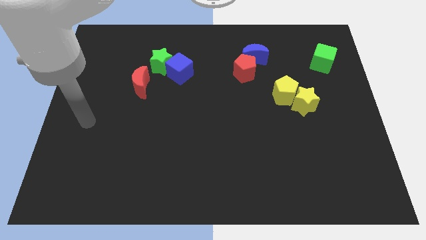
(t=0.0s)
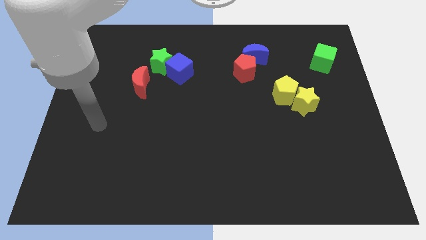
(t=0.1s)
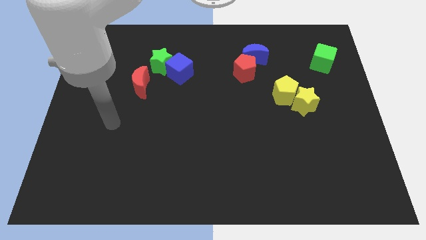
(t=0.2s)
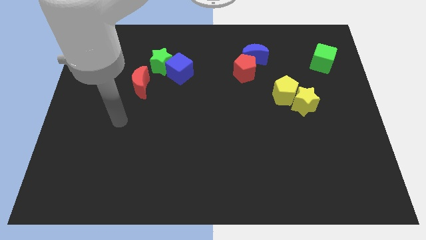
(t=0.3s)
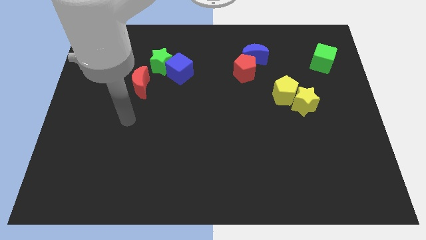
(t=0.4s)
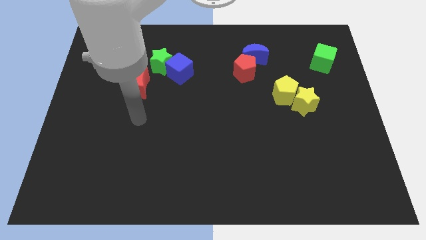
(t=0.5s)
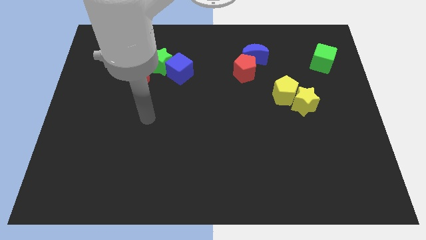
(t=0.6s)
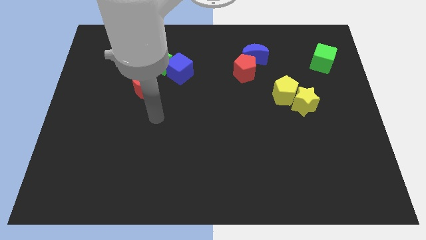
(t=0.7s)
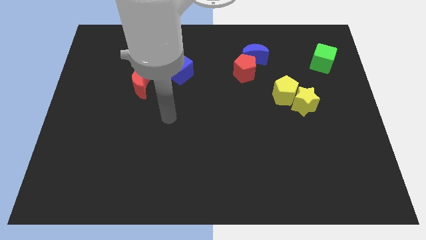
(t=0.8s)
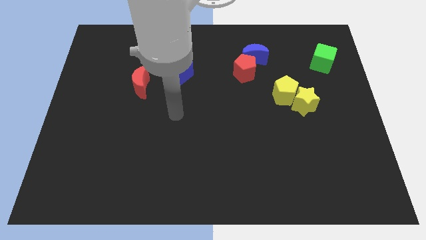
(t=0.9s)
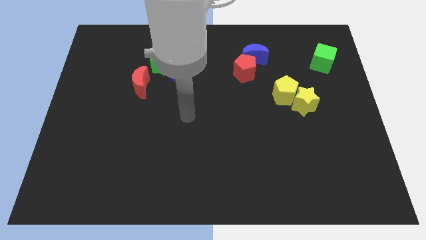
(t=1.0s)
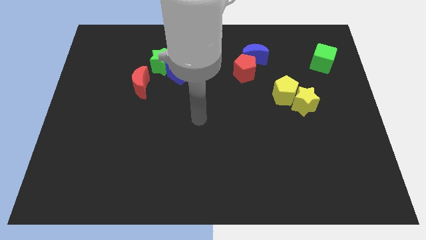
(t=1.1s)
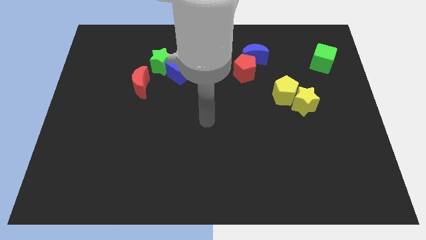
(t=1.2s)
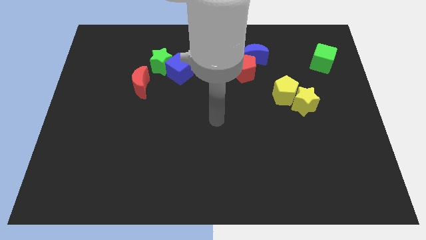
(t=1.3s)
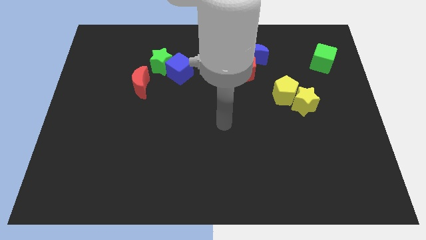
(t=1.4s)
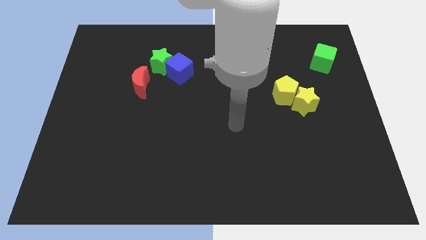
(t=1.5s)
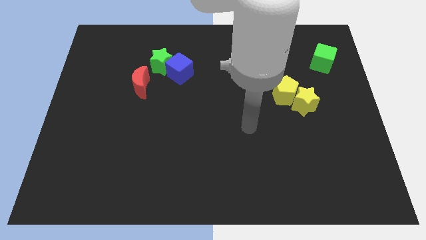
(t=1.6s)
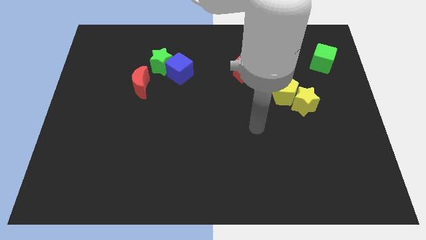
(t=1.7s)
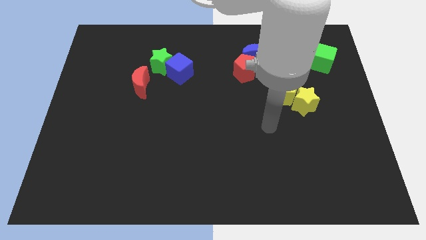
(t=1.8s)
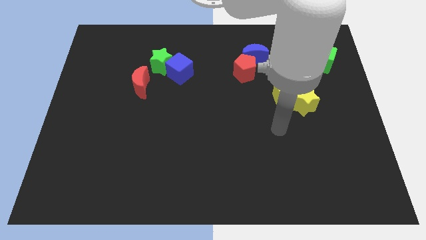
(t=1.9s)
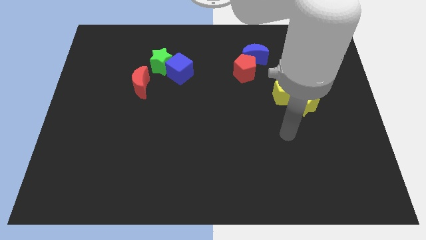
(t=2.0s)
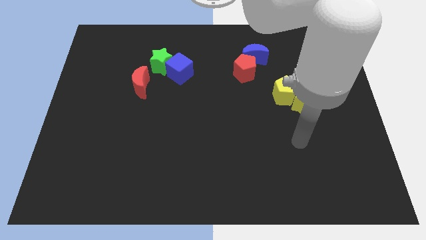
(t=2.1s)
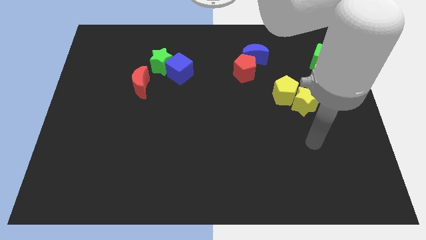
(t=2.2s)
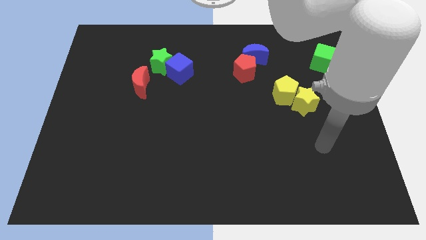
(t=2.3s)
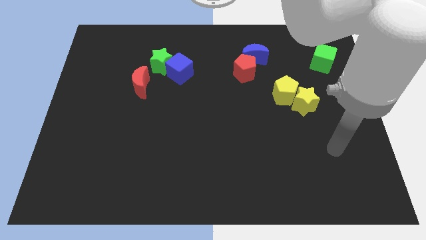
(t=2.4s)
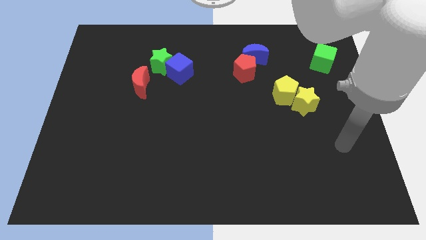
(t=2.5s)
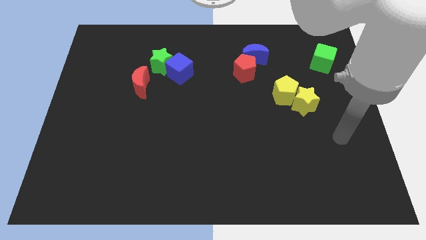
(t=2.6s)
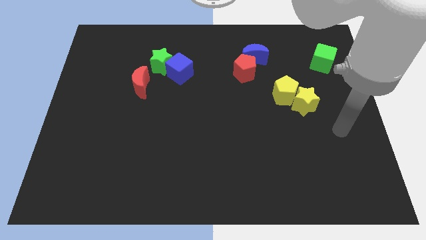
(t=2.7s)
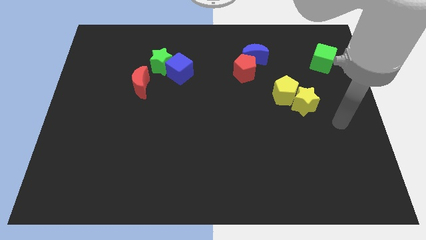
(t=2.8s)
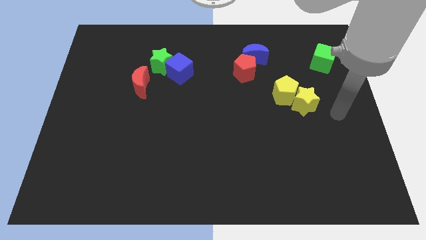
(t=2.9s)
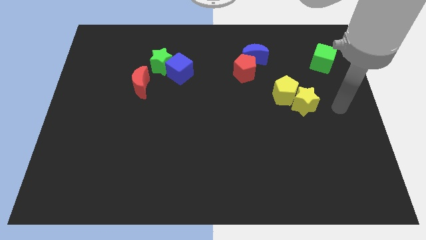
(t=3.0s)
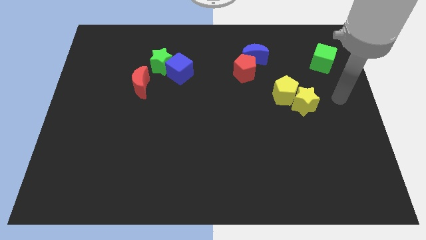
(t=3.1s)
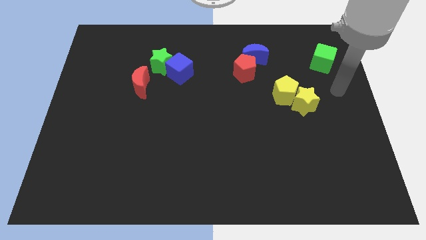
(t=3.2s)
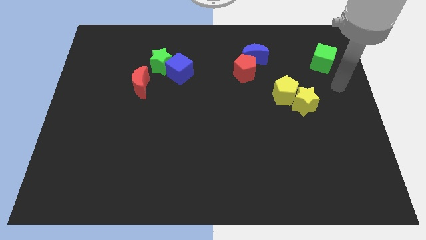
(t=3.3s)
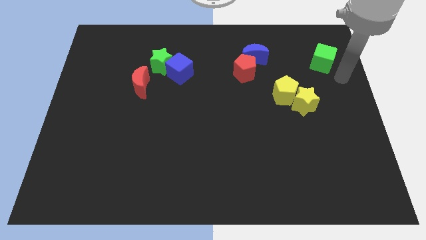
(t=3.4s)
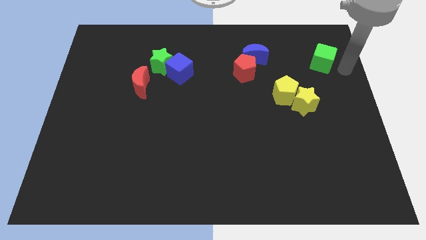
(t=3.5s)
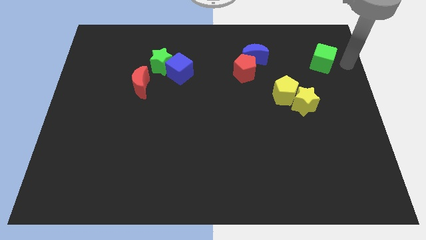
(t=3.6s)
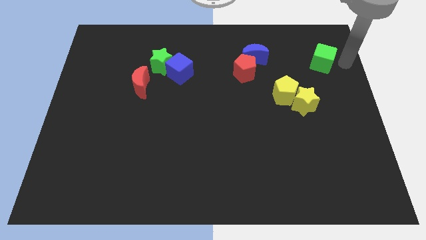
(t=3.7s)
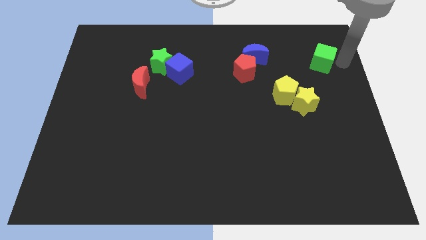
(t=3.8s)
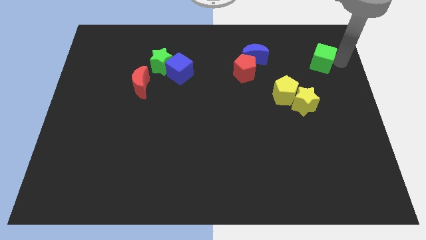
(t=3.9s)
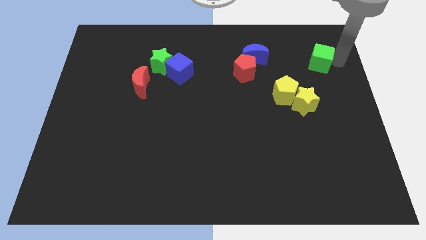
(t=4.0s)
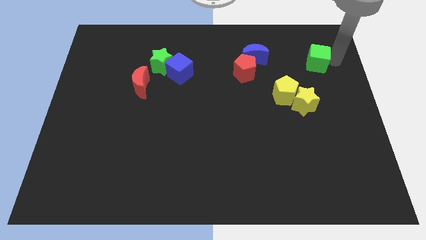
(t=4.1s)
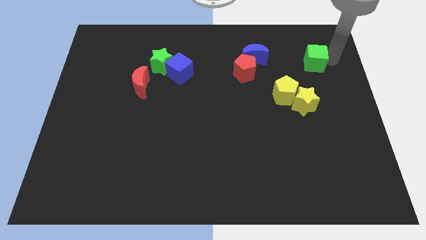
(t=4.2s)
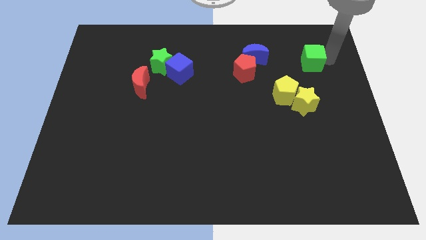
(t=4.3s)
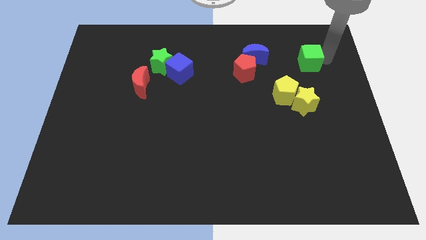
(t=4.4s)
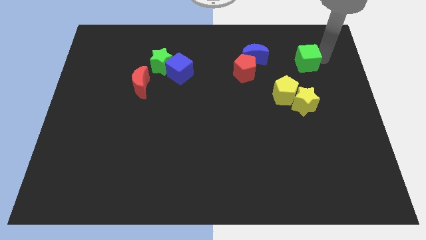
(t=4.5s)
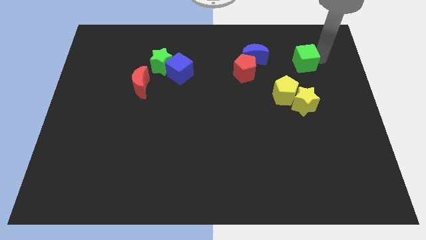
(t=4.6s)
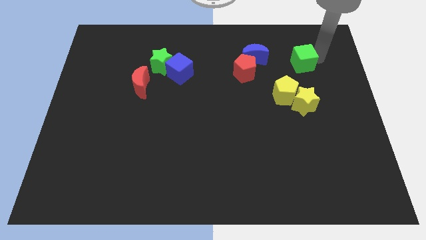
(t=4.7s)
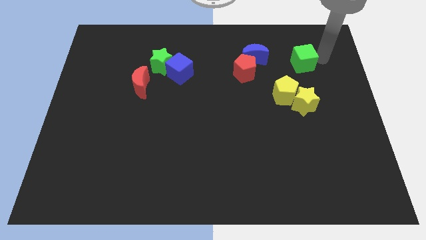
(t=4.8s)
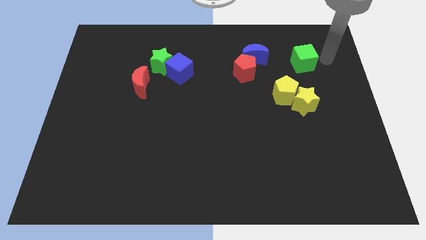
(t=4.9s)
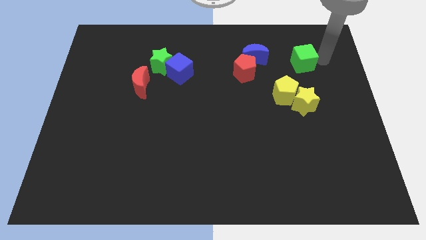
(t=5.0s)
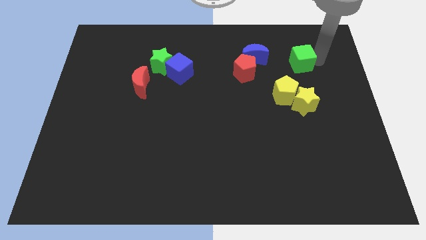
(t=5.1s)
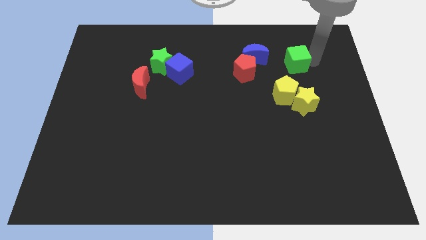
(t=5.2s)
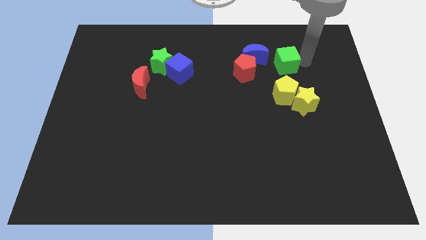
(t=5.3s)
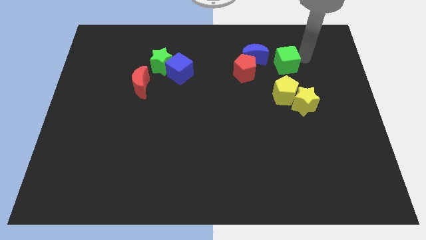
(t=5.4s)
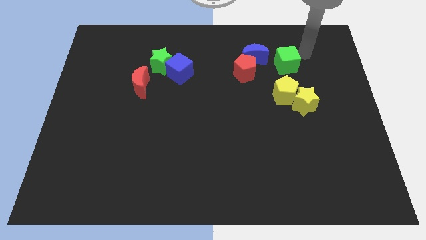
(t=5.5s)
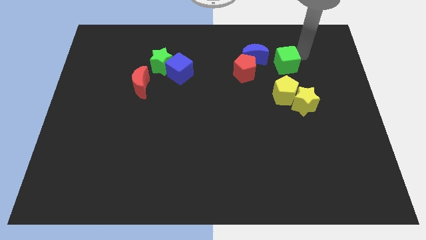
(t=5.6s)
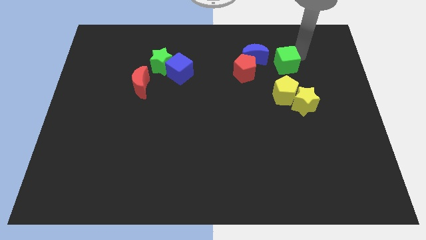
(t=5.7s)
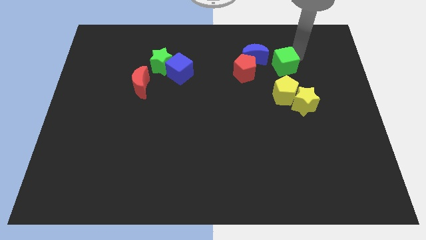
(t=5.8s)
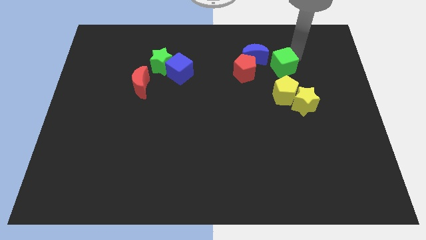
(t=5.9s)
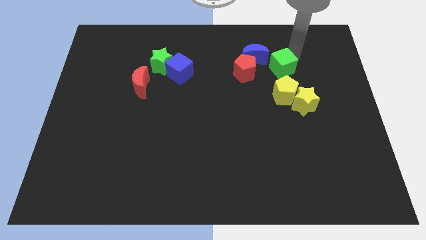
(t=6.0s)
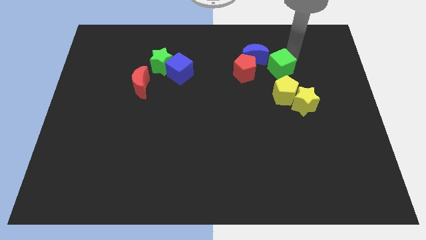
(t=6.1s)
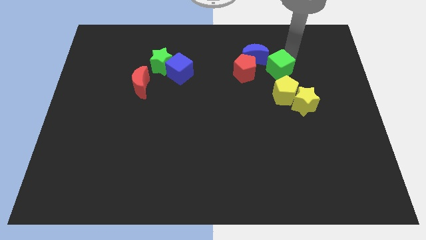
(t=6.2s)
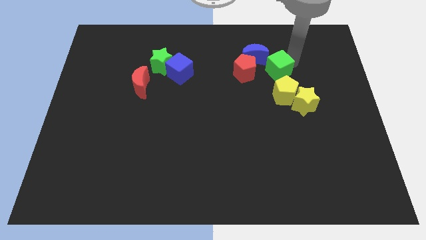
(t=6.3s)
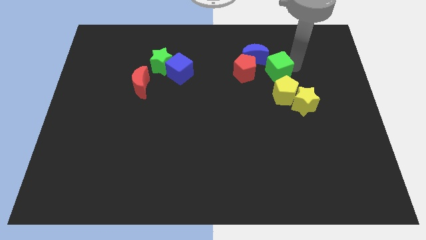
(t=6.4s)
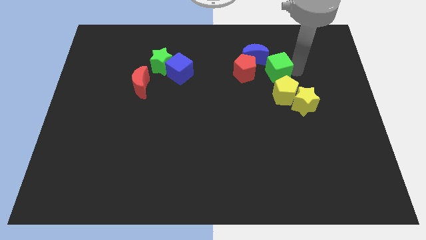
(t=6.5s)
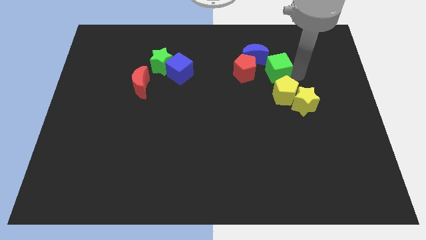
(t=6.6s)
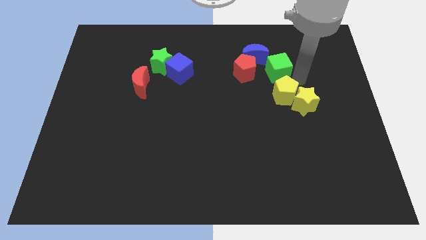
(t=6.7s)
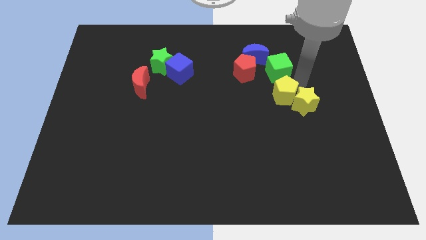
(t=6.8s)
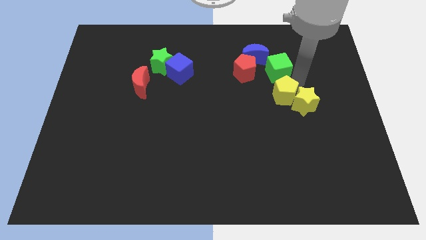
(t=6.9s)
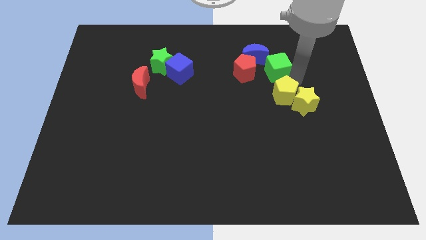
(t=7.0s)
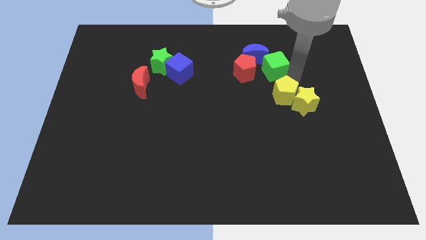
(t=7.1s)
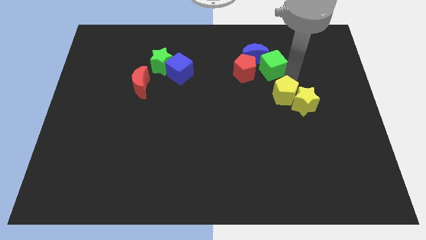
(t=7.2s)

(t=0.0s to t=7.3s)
move the green cube towards the blue moon
